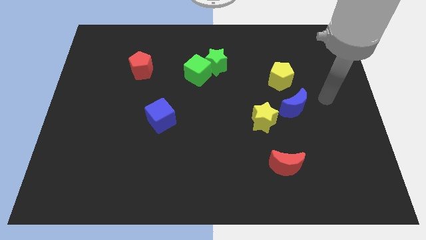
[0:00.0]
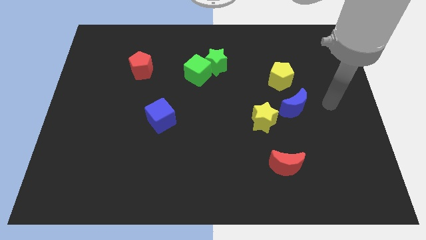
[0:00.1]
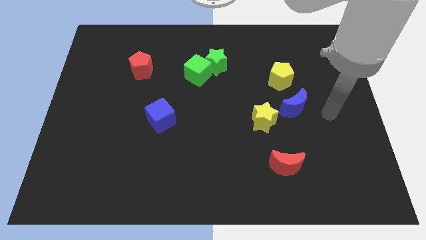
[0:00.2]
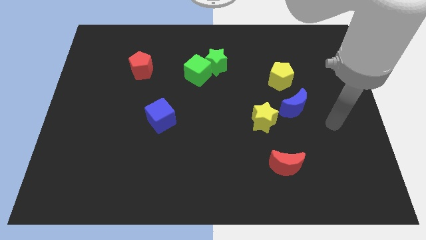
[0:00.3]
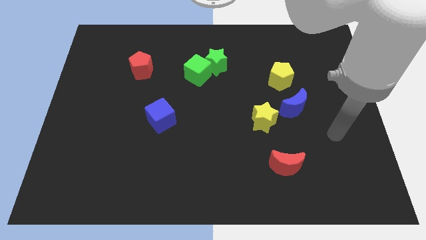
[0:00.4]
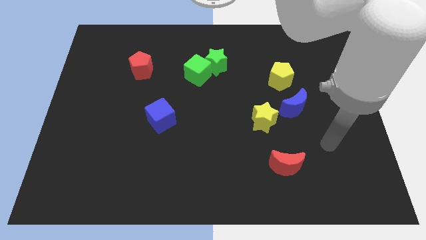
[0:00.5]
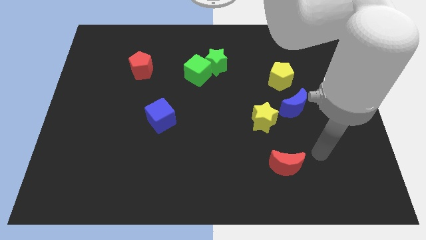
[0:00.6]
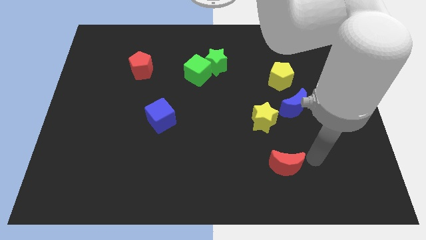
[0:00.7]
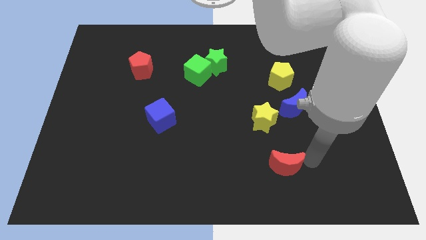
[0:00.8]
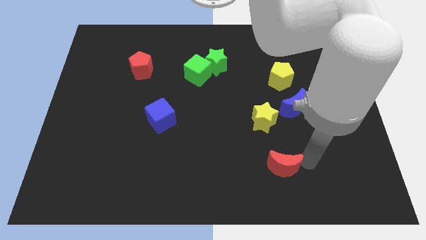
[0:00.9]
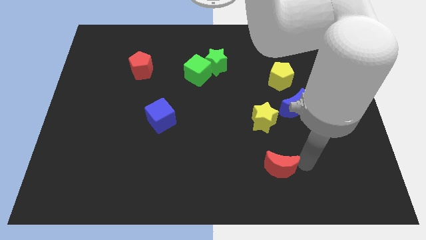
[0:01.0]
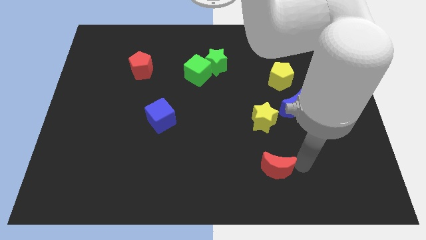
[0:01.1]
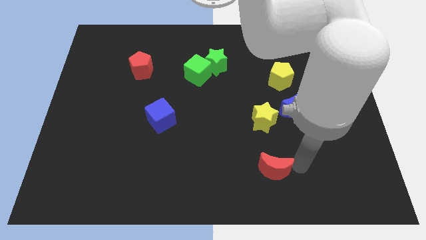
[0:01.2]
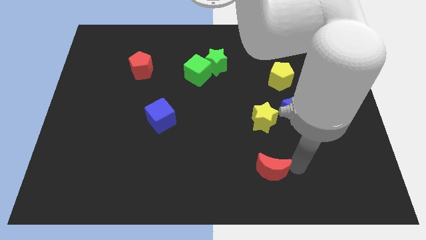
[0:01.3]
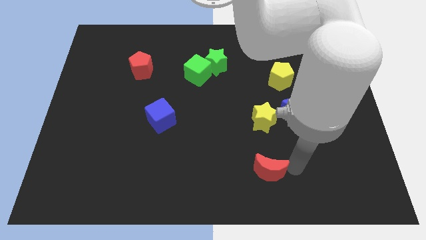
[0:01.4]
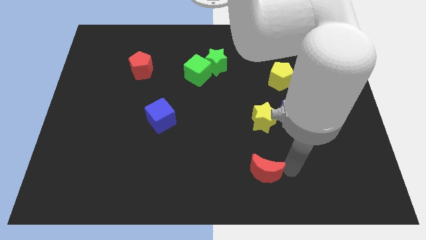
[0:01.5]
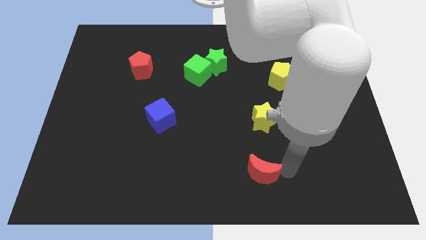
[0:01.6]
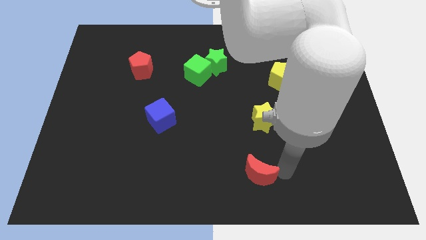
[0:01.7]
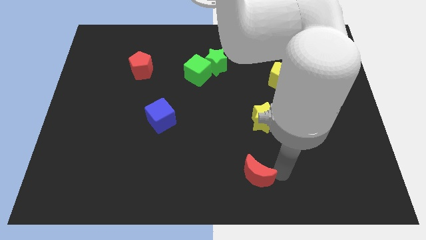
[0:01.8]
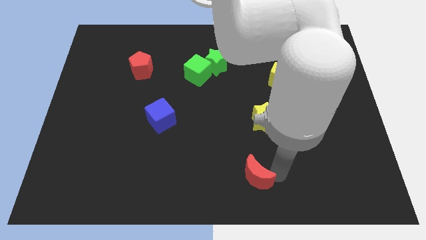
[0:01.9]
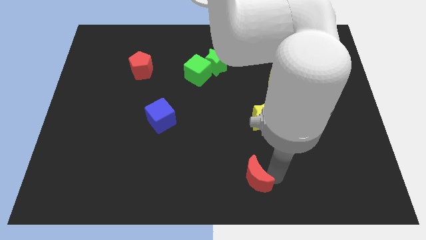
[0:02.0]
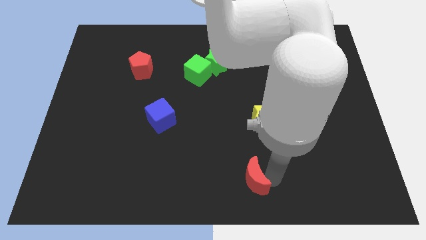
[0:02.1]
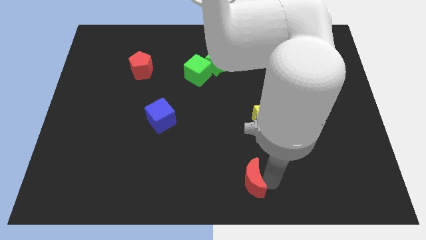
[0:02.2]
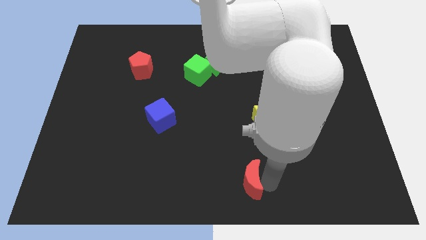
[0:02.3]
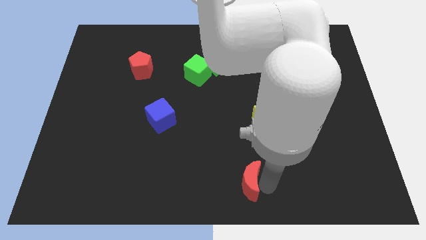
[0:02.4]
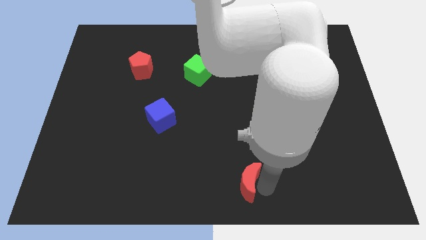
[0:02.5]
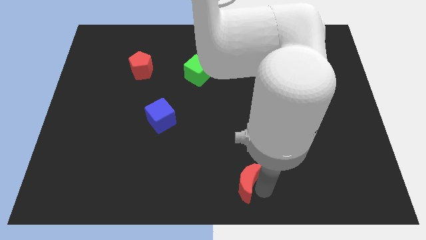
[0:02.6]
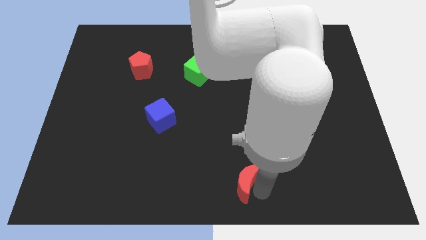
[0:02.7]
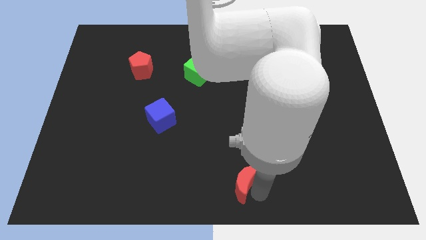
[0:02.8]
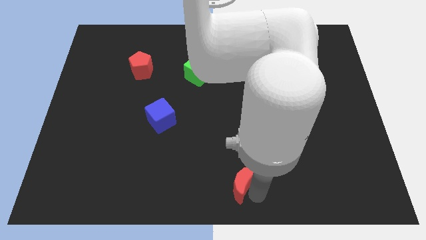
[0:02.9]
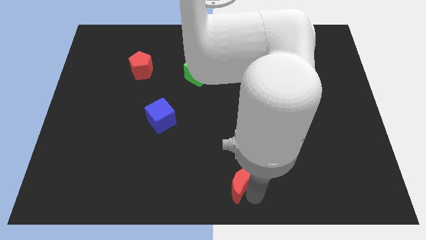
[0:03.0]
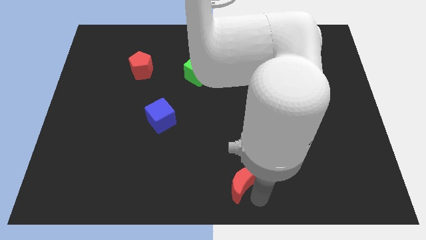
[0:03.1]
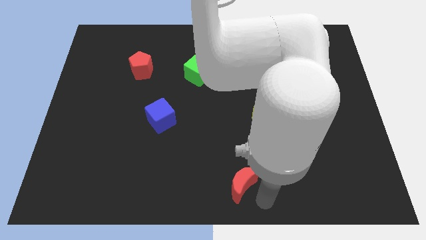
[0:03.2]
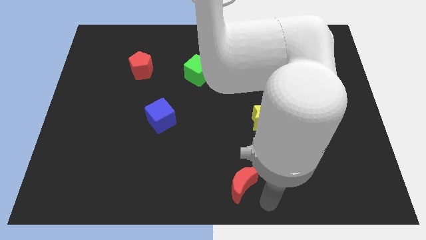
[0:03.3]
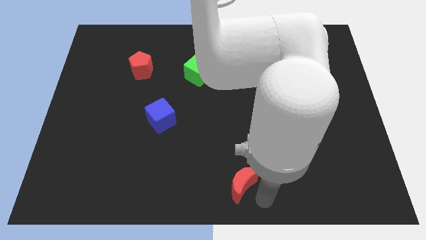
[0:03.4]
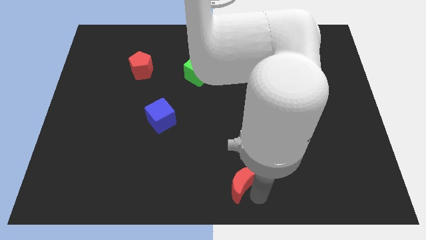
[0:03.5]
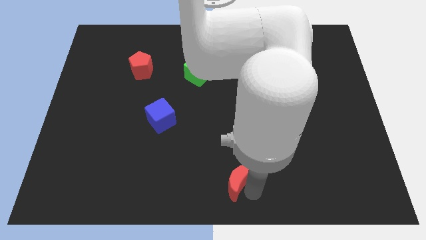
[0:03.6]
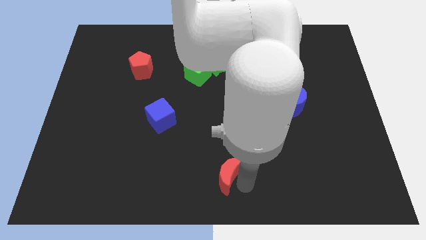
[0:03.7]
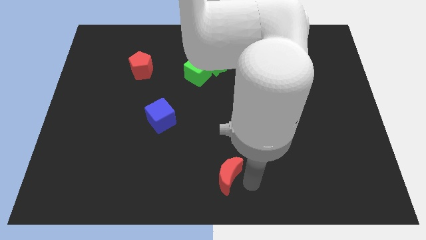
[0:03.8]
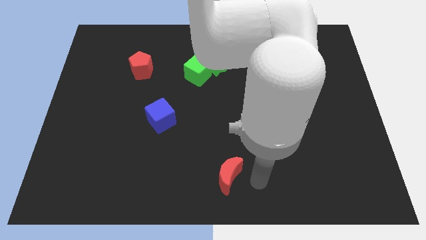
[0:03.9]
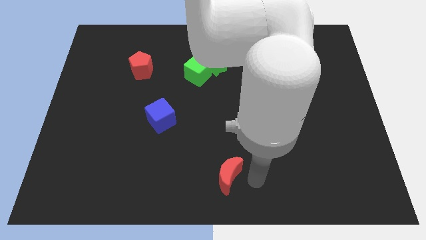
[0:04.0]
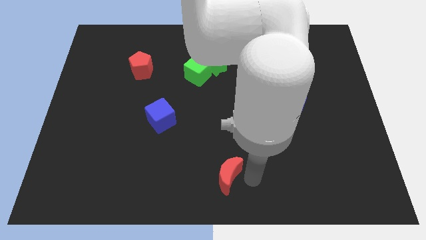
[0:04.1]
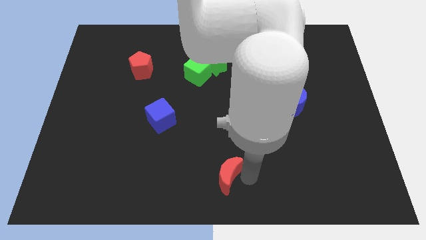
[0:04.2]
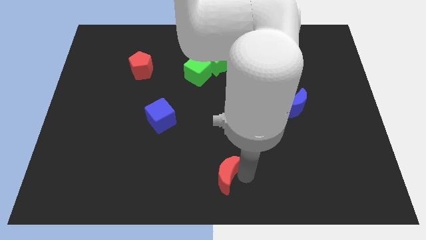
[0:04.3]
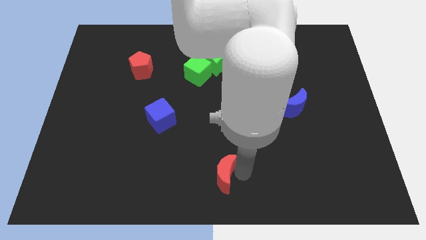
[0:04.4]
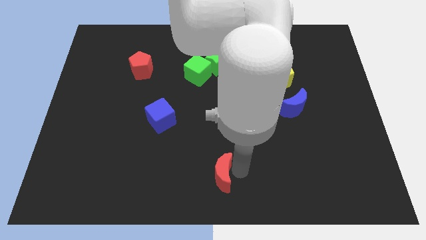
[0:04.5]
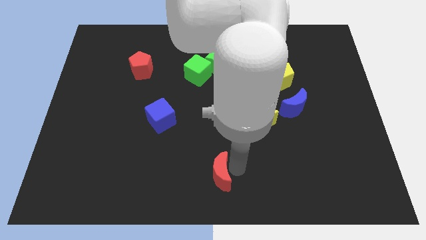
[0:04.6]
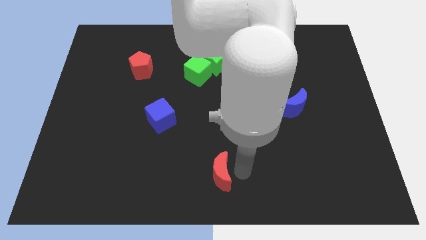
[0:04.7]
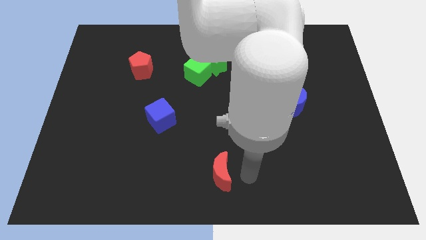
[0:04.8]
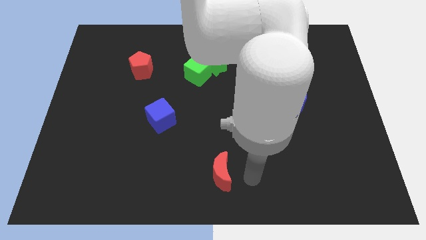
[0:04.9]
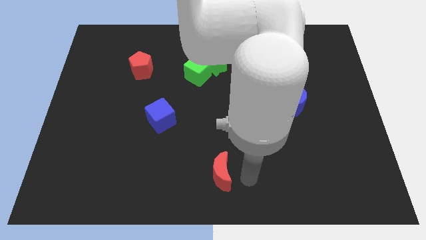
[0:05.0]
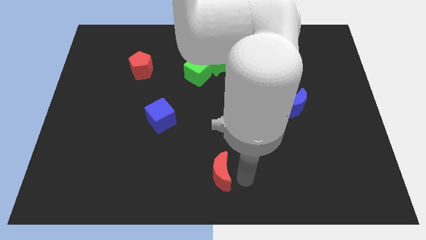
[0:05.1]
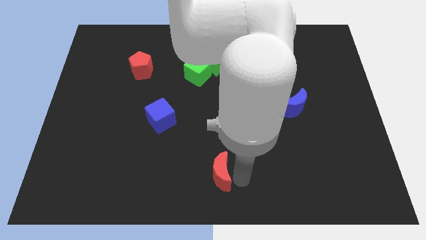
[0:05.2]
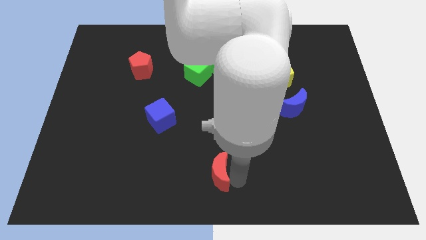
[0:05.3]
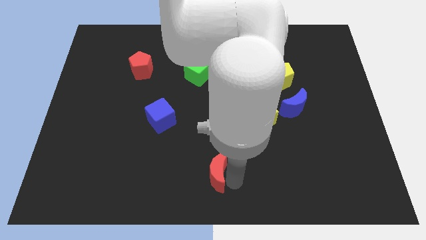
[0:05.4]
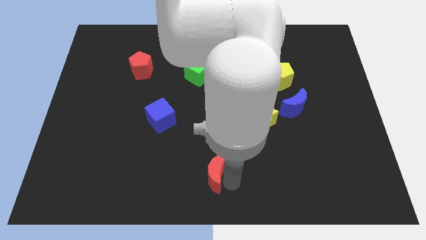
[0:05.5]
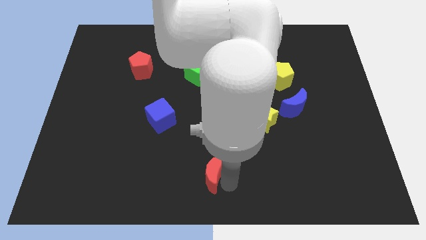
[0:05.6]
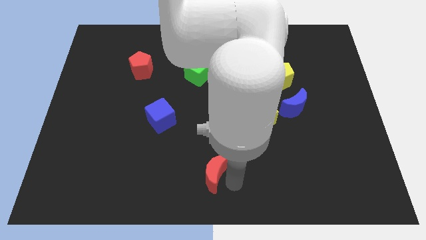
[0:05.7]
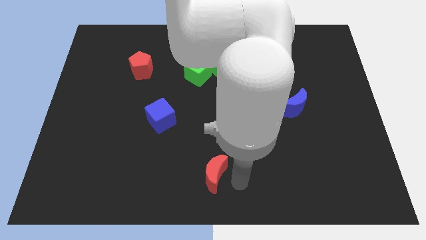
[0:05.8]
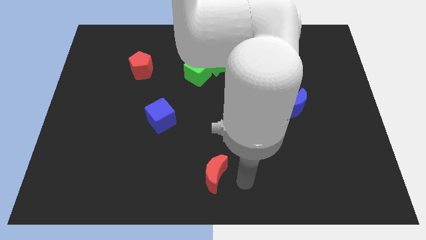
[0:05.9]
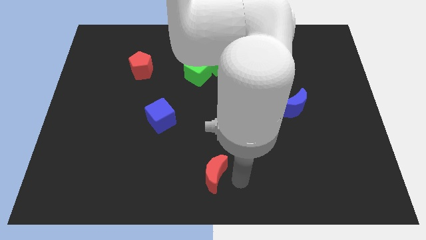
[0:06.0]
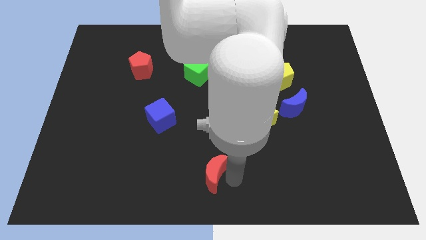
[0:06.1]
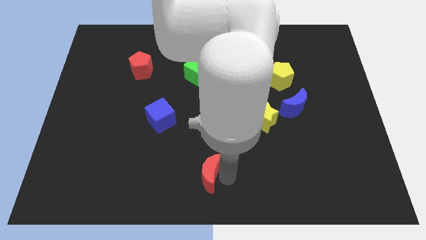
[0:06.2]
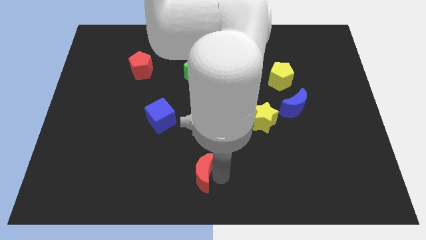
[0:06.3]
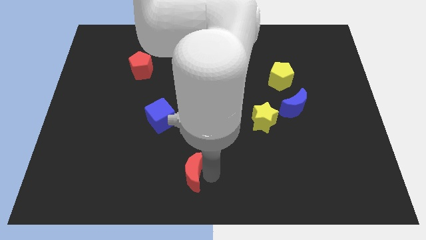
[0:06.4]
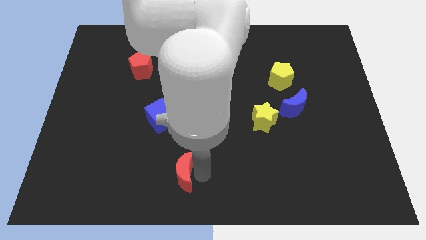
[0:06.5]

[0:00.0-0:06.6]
push the red moon left

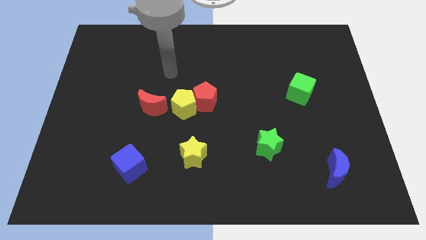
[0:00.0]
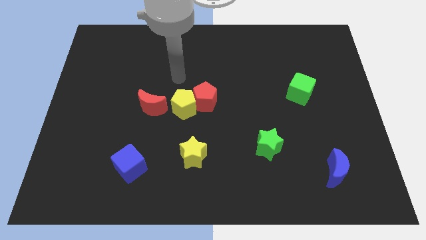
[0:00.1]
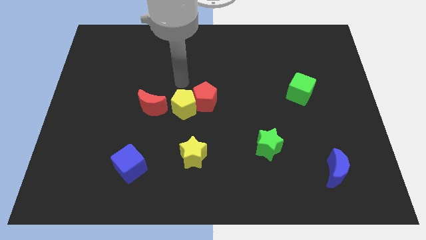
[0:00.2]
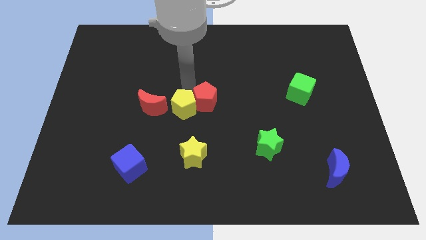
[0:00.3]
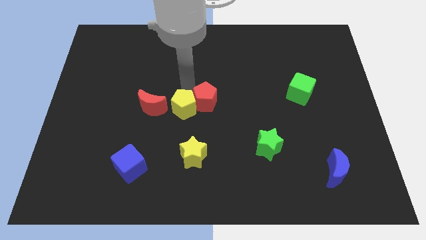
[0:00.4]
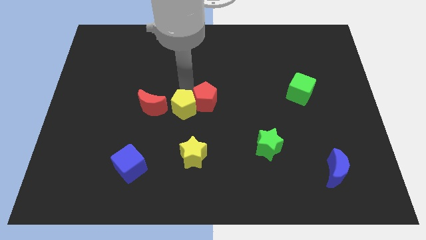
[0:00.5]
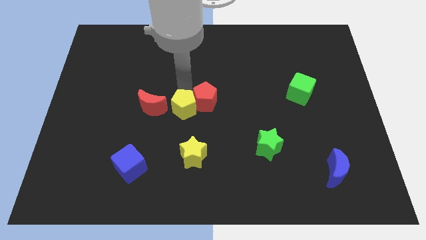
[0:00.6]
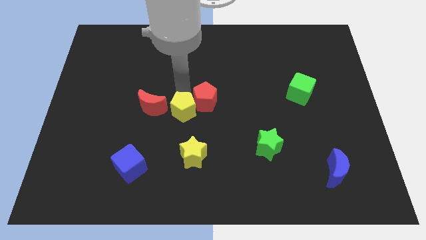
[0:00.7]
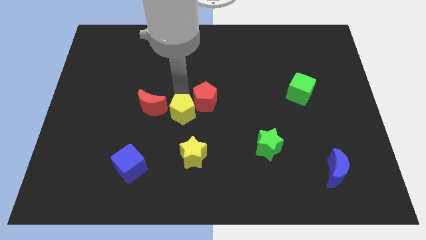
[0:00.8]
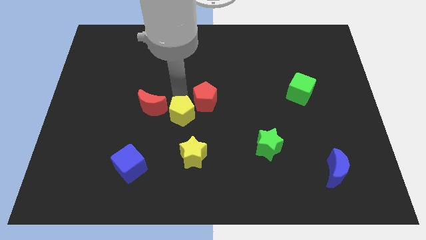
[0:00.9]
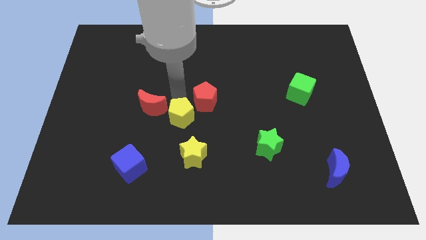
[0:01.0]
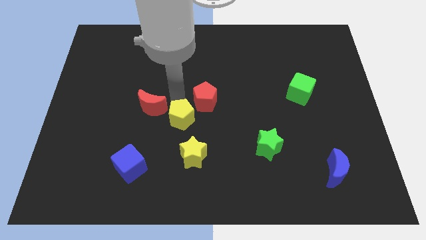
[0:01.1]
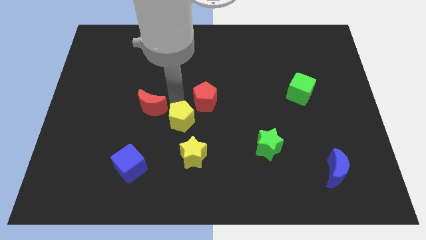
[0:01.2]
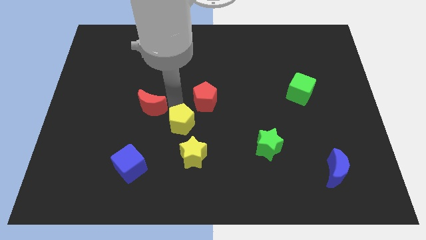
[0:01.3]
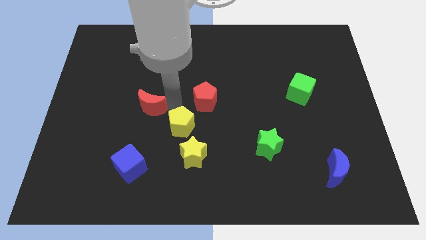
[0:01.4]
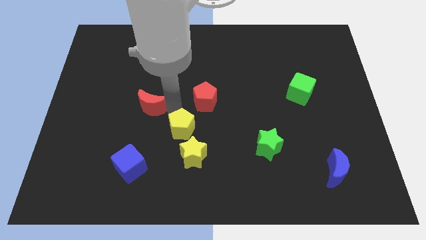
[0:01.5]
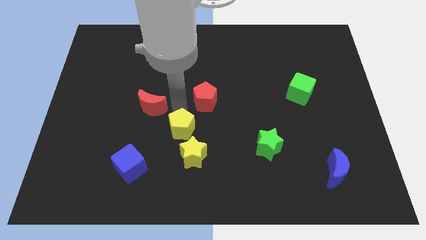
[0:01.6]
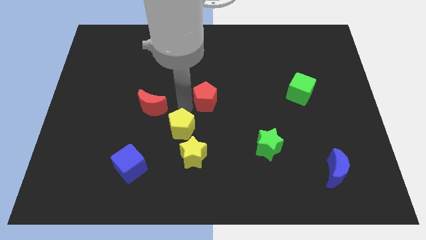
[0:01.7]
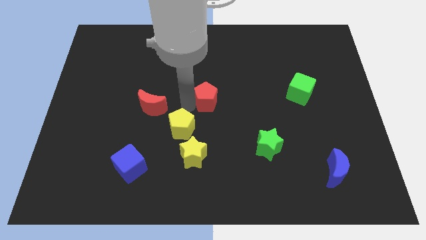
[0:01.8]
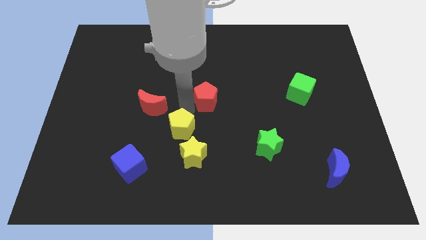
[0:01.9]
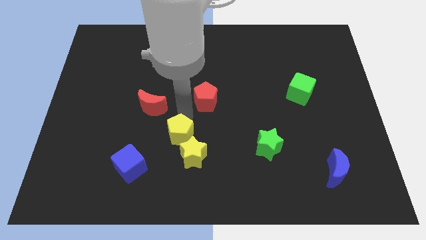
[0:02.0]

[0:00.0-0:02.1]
move the yellow pentagon somewhat downwards
